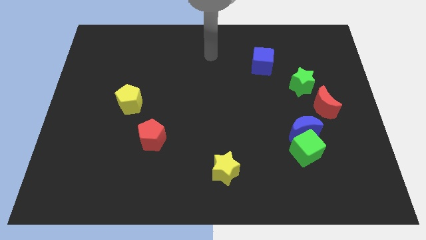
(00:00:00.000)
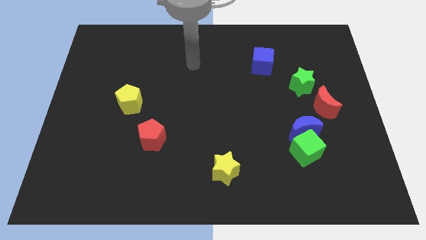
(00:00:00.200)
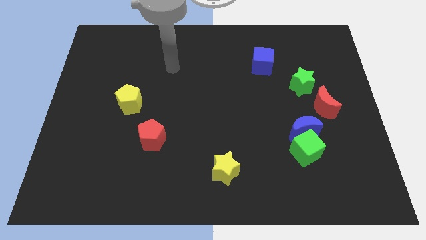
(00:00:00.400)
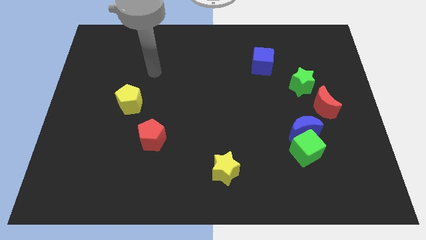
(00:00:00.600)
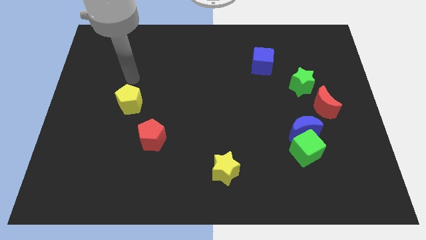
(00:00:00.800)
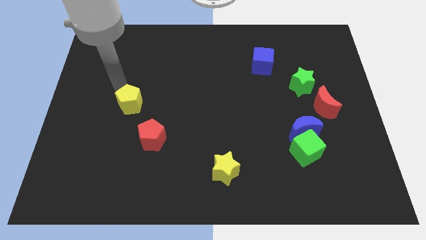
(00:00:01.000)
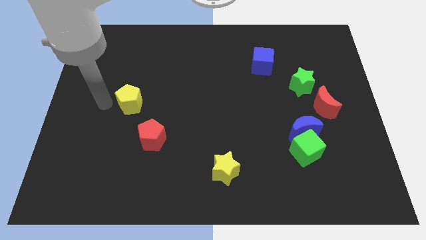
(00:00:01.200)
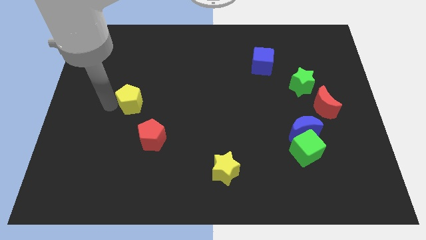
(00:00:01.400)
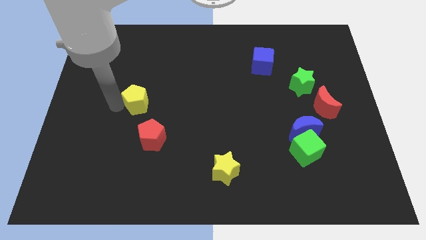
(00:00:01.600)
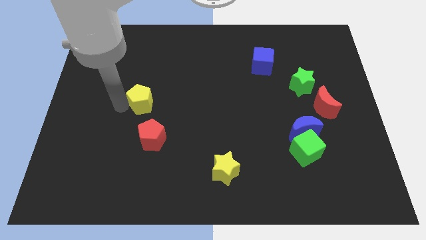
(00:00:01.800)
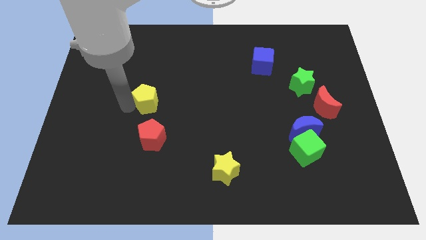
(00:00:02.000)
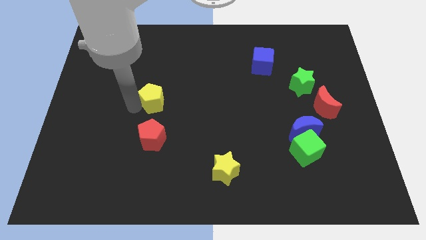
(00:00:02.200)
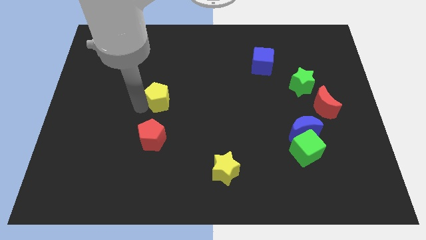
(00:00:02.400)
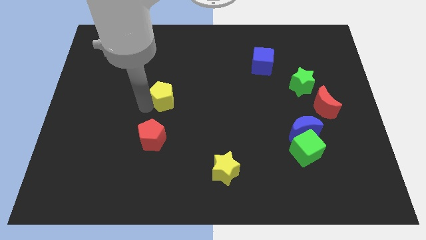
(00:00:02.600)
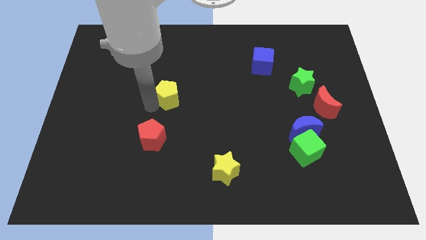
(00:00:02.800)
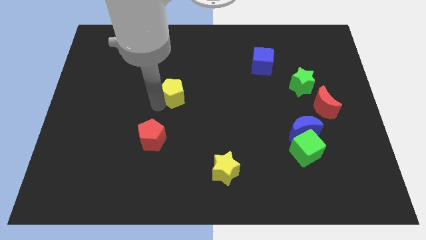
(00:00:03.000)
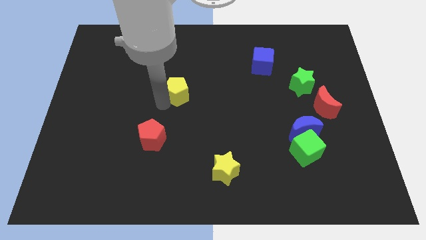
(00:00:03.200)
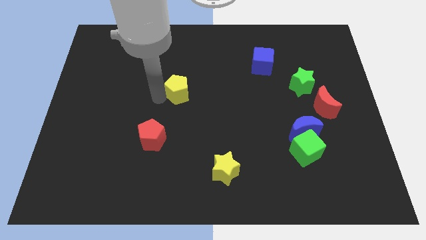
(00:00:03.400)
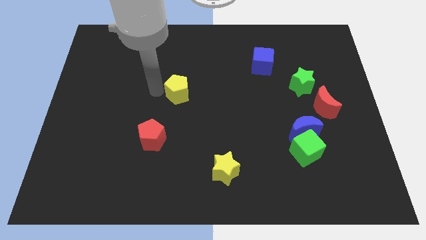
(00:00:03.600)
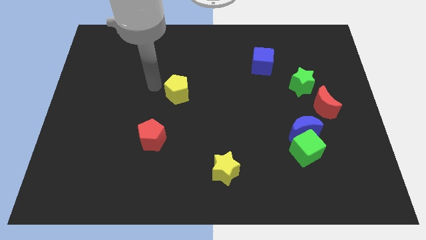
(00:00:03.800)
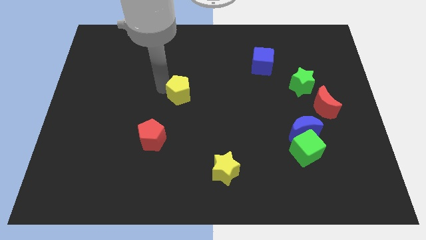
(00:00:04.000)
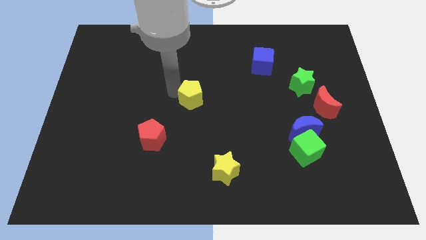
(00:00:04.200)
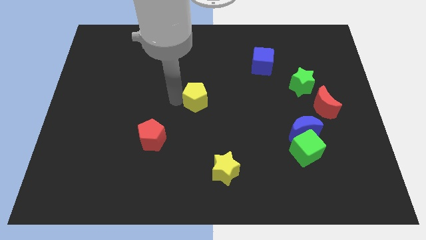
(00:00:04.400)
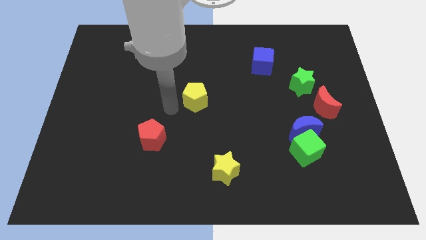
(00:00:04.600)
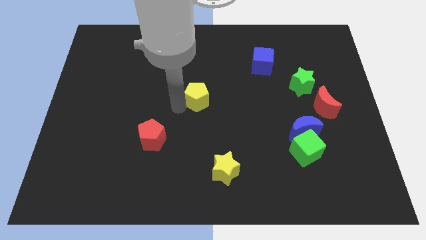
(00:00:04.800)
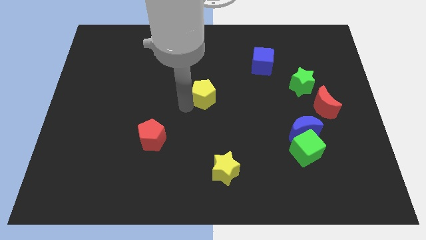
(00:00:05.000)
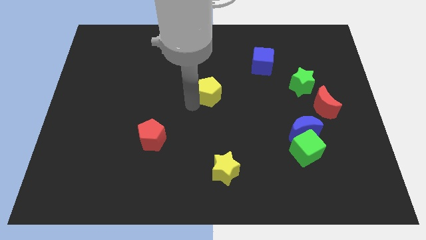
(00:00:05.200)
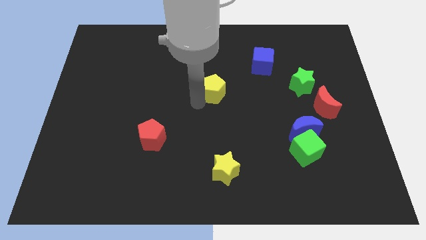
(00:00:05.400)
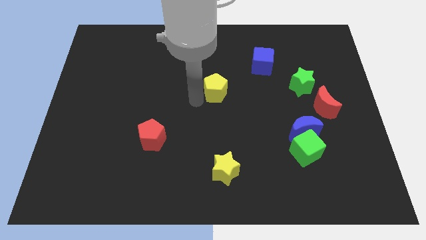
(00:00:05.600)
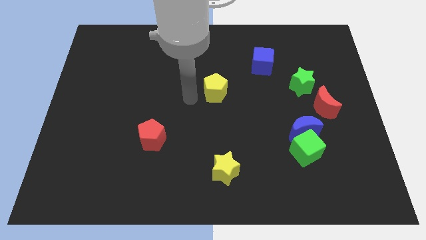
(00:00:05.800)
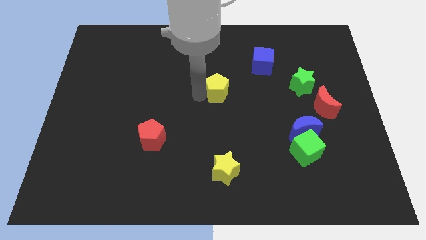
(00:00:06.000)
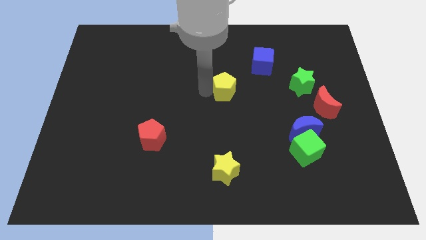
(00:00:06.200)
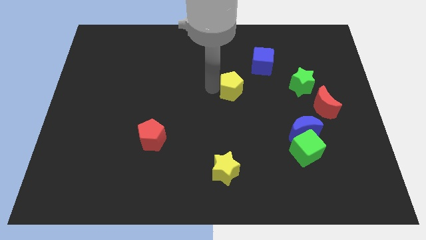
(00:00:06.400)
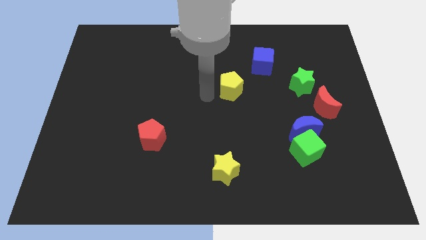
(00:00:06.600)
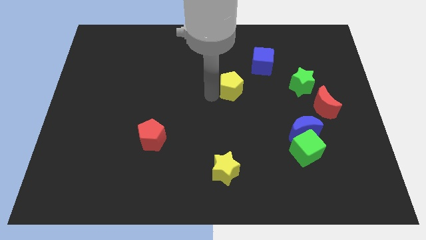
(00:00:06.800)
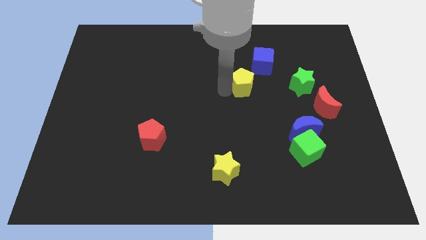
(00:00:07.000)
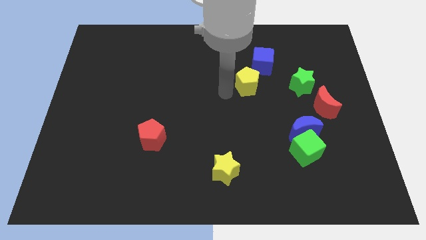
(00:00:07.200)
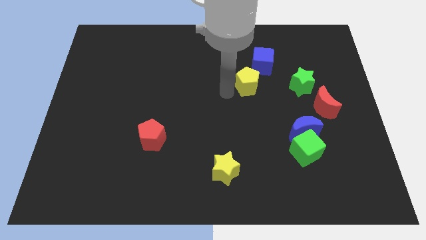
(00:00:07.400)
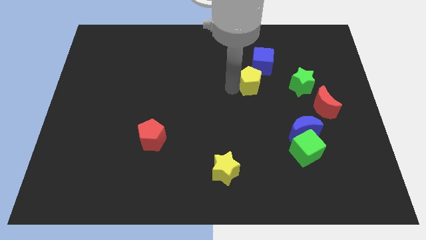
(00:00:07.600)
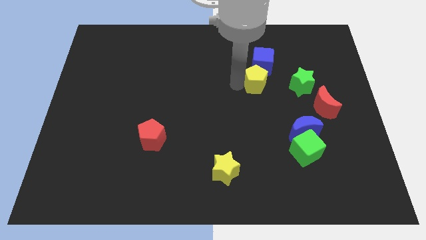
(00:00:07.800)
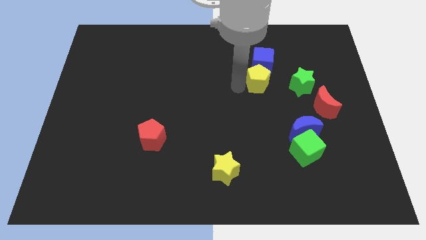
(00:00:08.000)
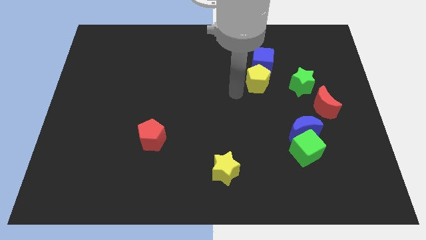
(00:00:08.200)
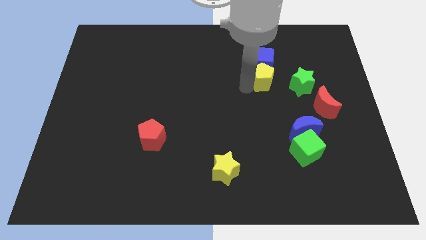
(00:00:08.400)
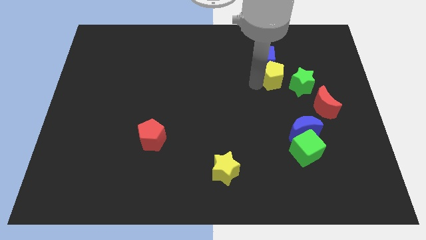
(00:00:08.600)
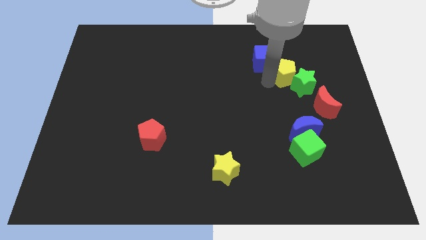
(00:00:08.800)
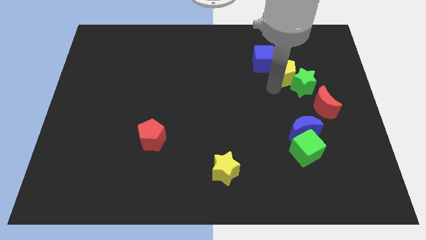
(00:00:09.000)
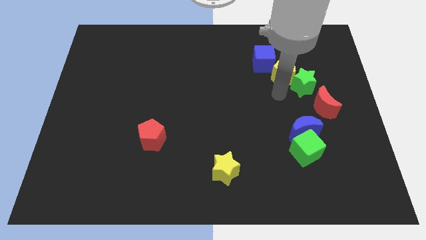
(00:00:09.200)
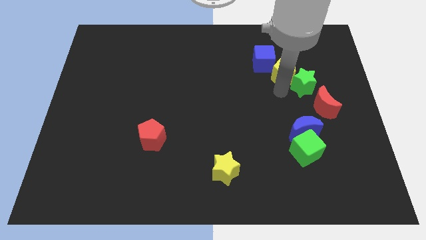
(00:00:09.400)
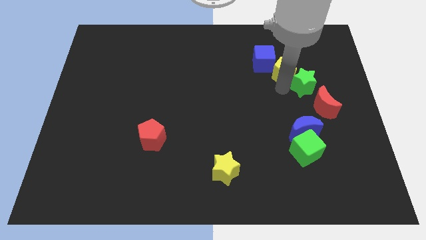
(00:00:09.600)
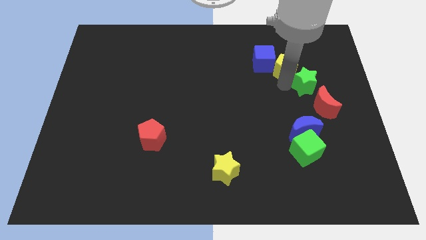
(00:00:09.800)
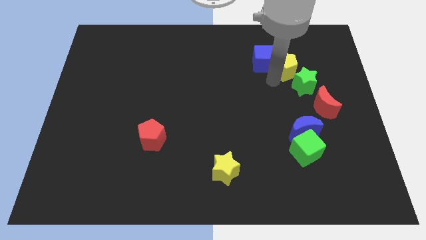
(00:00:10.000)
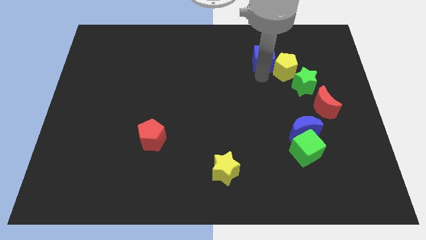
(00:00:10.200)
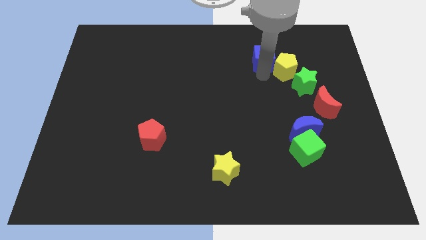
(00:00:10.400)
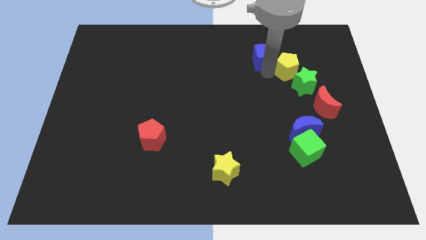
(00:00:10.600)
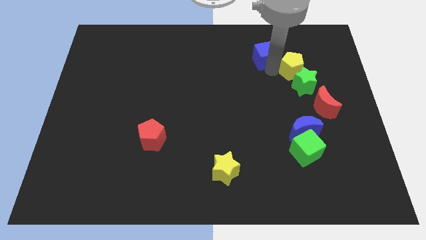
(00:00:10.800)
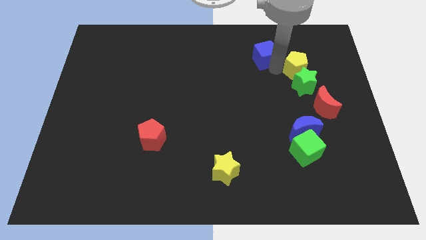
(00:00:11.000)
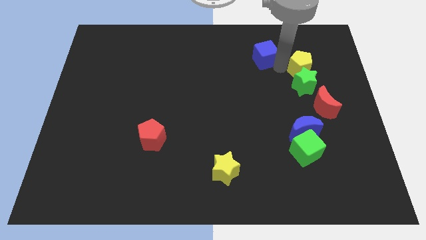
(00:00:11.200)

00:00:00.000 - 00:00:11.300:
move the yellow pentagon to the top right of the green star

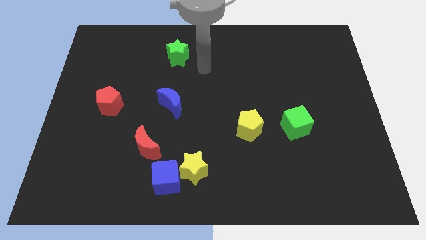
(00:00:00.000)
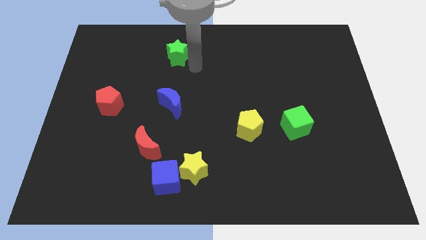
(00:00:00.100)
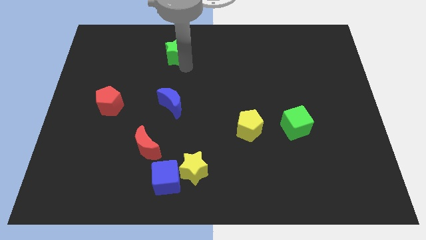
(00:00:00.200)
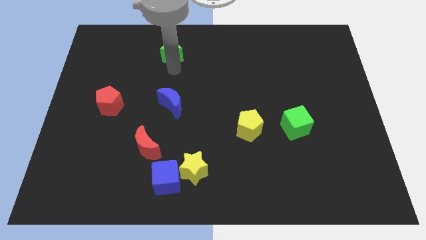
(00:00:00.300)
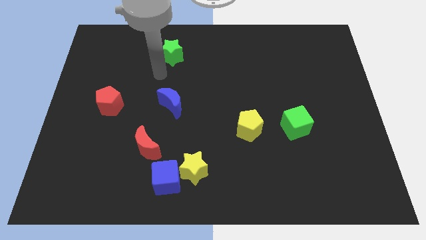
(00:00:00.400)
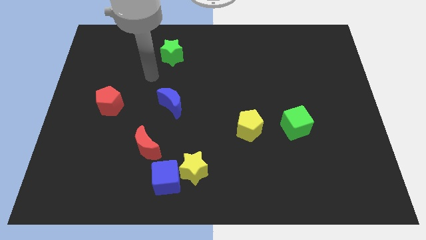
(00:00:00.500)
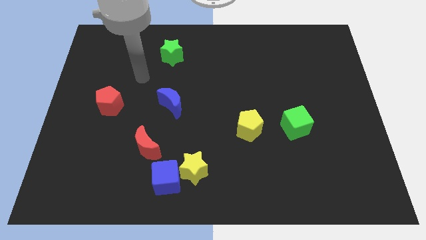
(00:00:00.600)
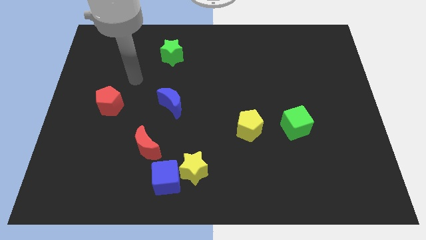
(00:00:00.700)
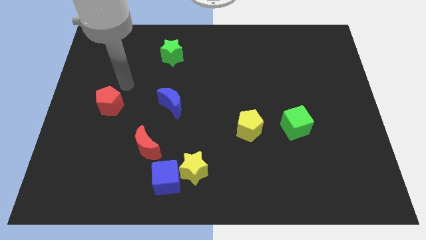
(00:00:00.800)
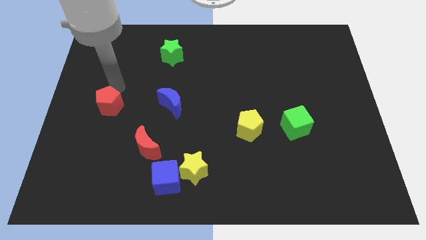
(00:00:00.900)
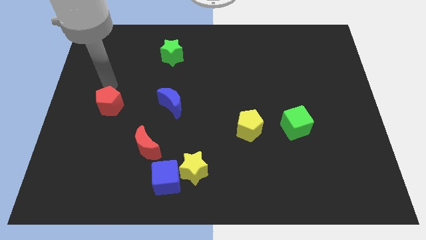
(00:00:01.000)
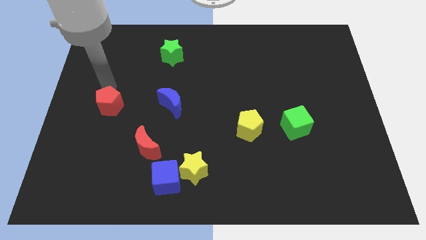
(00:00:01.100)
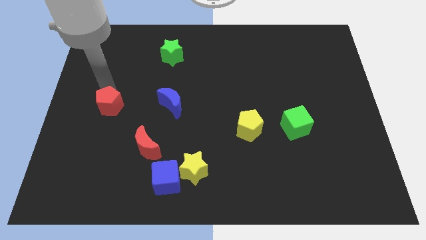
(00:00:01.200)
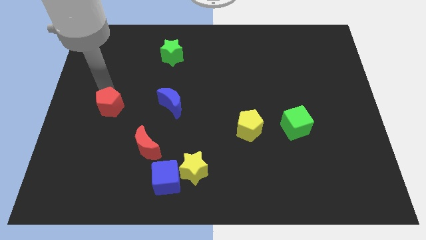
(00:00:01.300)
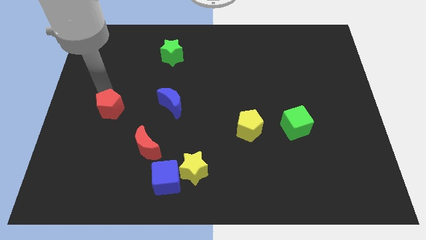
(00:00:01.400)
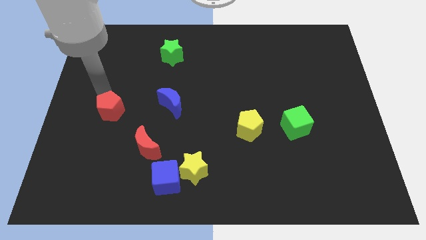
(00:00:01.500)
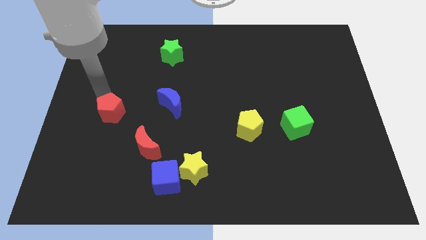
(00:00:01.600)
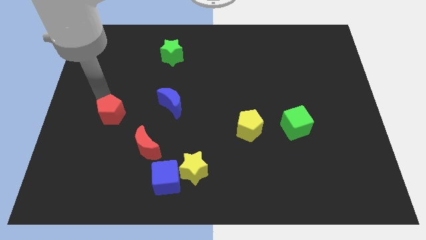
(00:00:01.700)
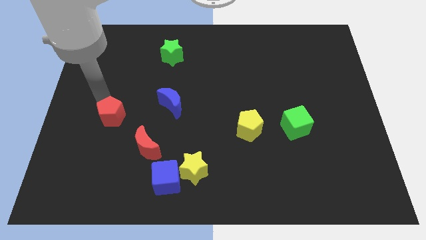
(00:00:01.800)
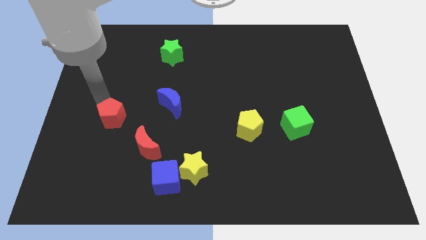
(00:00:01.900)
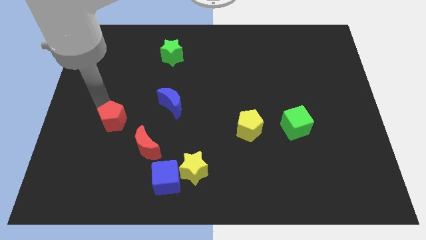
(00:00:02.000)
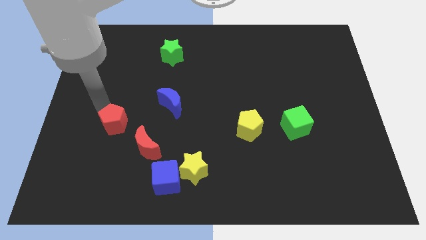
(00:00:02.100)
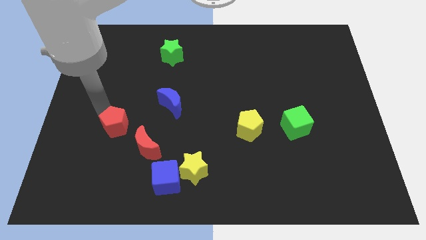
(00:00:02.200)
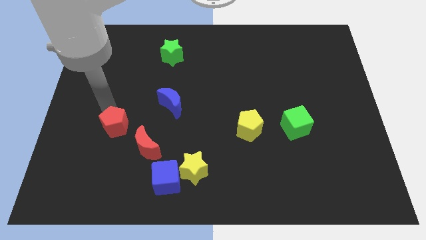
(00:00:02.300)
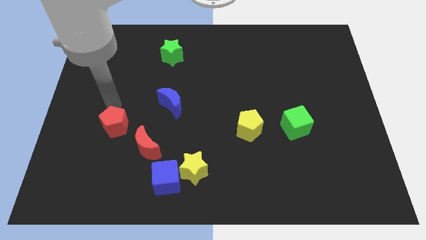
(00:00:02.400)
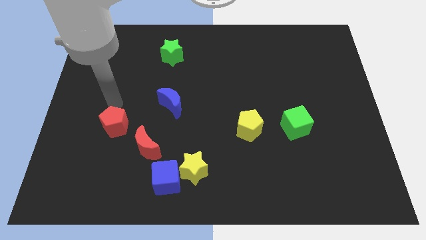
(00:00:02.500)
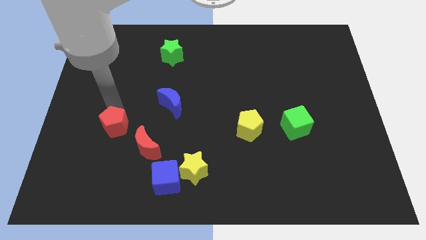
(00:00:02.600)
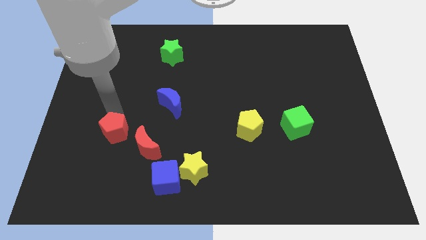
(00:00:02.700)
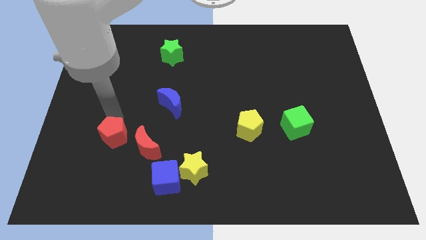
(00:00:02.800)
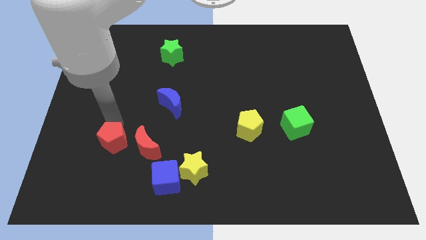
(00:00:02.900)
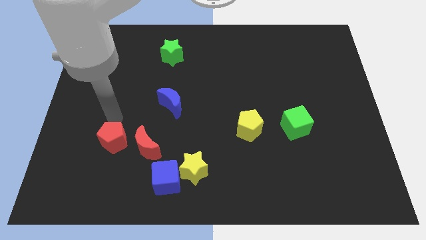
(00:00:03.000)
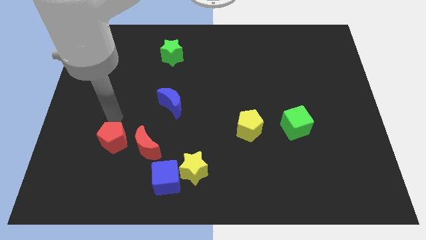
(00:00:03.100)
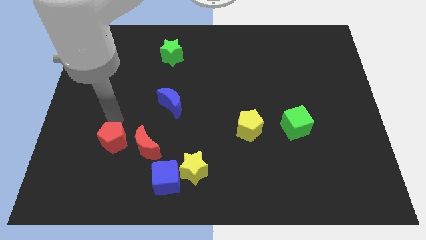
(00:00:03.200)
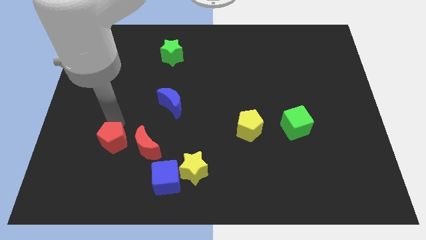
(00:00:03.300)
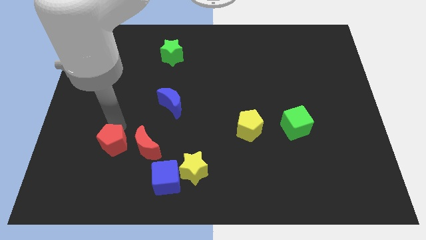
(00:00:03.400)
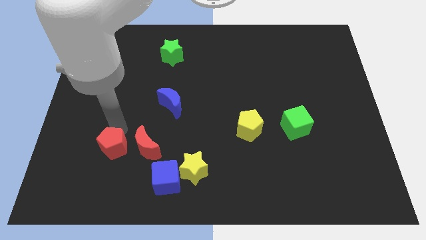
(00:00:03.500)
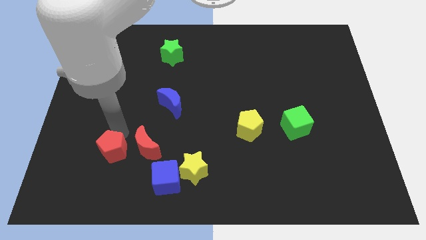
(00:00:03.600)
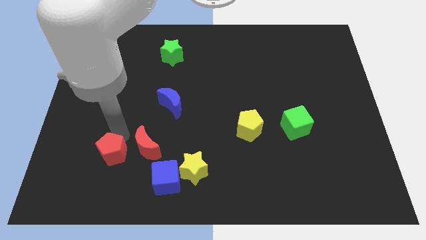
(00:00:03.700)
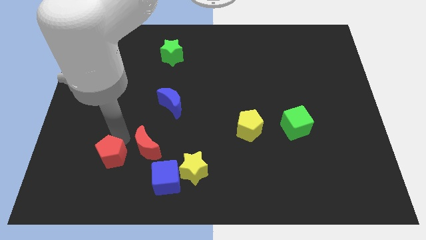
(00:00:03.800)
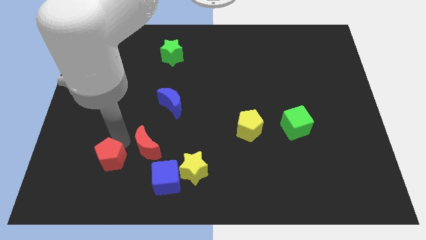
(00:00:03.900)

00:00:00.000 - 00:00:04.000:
slide the red pentagon to the left side of the blue cube
